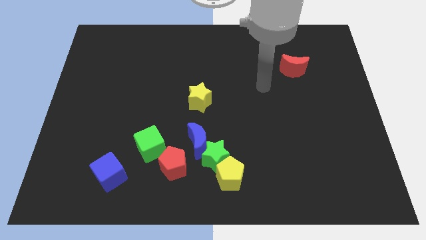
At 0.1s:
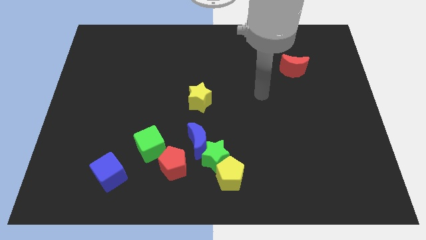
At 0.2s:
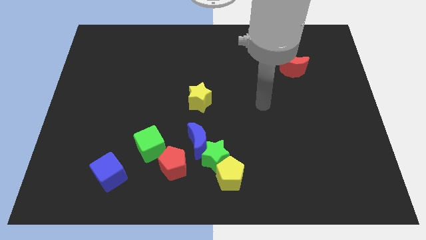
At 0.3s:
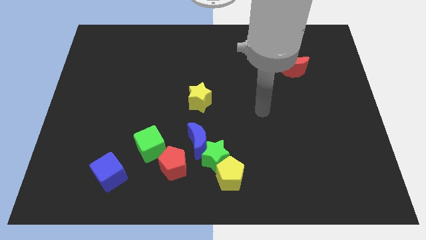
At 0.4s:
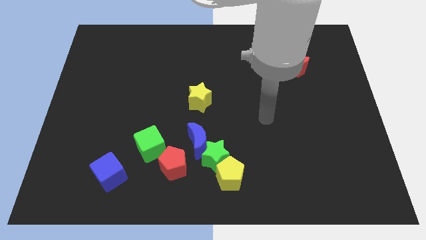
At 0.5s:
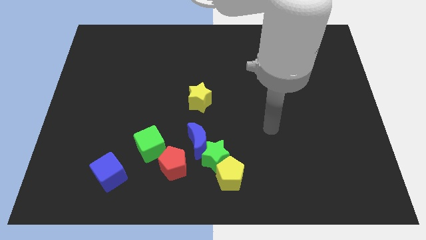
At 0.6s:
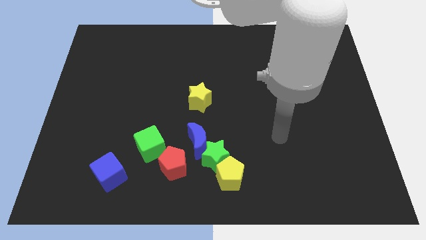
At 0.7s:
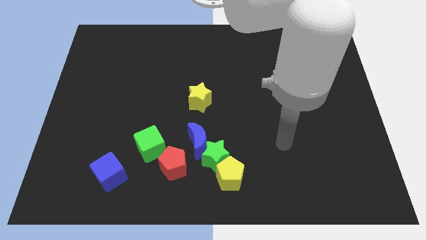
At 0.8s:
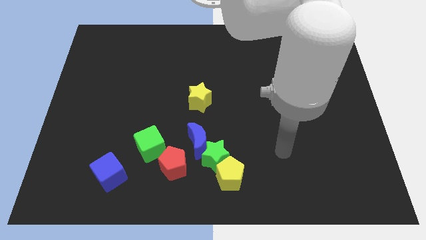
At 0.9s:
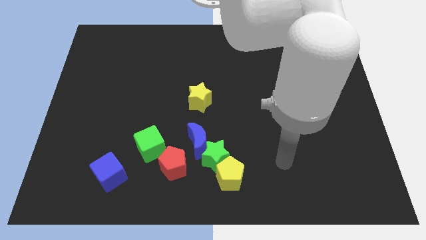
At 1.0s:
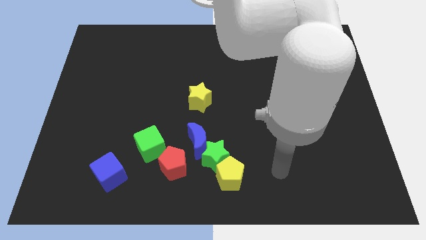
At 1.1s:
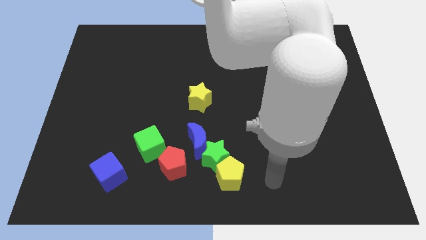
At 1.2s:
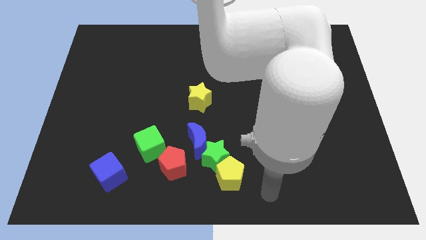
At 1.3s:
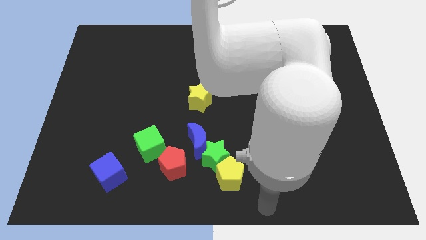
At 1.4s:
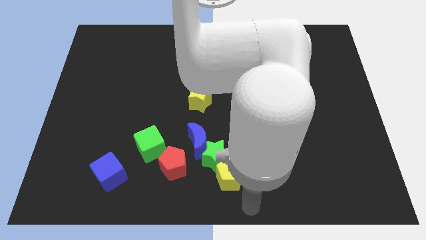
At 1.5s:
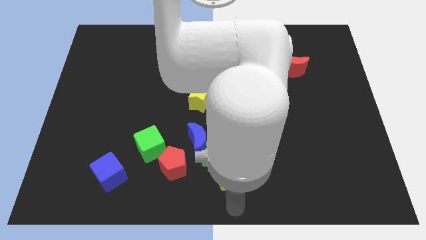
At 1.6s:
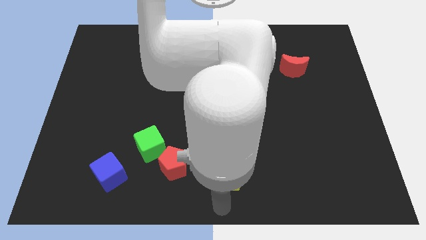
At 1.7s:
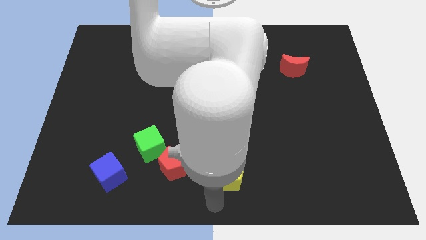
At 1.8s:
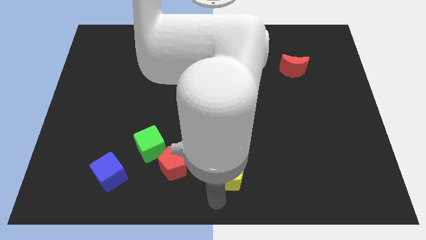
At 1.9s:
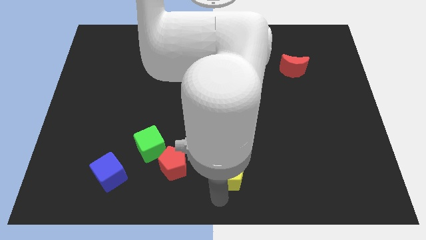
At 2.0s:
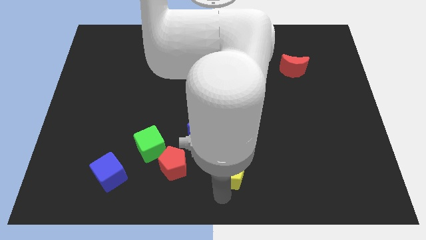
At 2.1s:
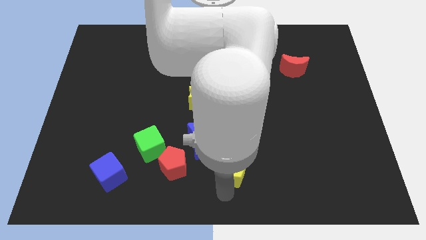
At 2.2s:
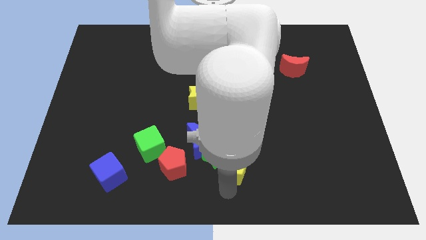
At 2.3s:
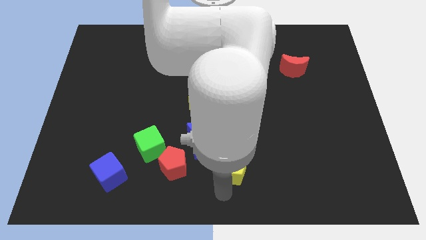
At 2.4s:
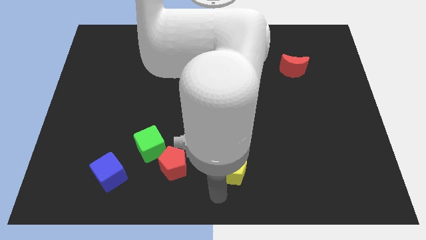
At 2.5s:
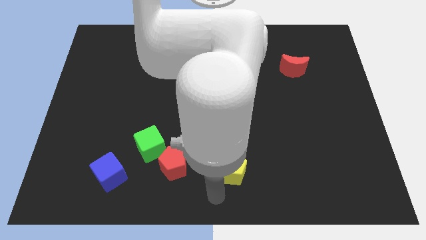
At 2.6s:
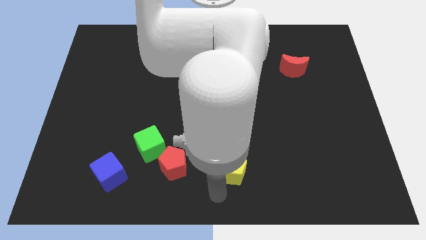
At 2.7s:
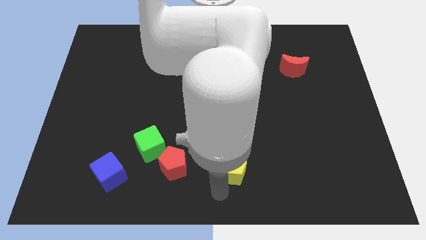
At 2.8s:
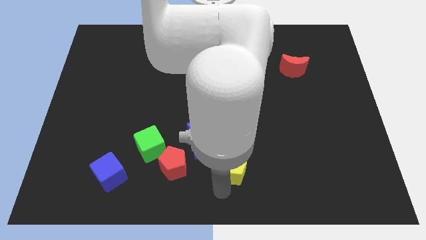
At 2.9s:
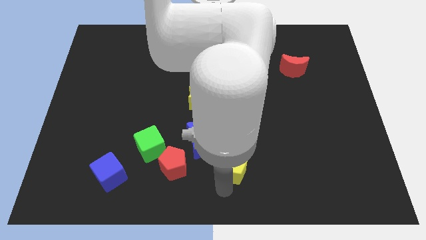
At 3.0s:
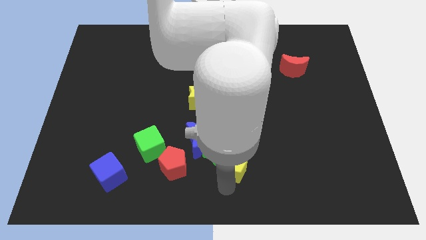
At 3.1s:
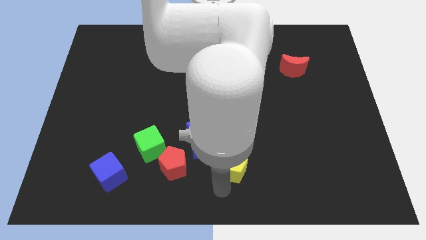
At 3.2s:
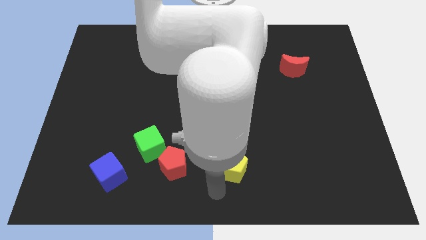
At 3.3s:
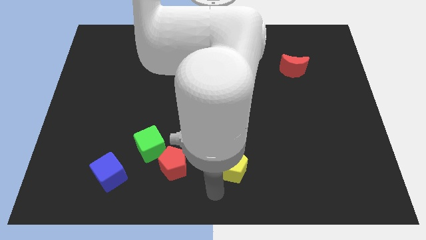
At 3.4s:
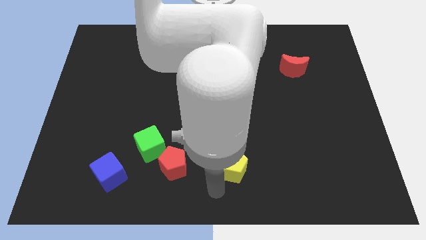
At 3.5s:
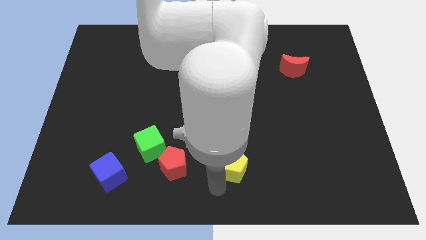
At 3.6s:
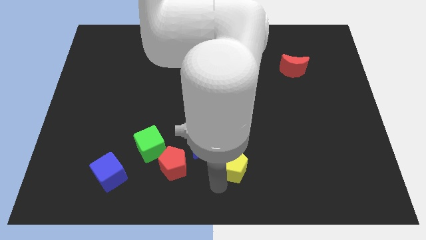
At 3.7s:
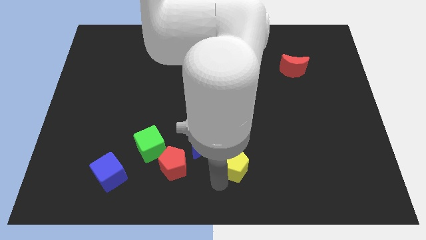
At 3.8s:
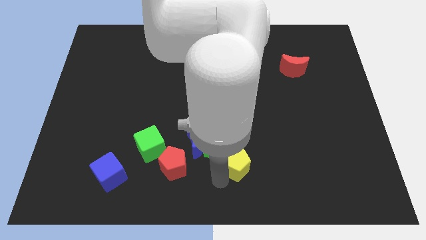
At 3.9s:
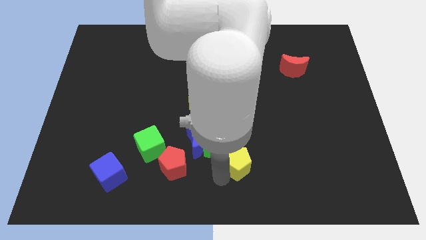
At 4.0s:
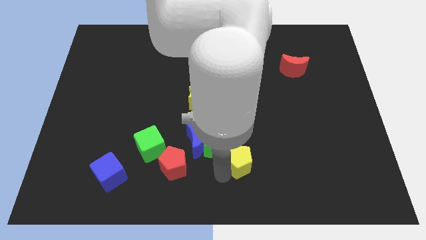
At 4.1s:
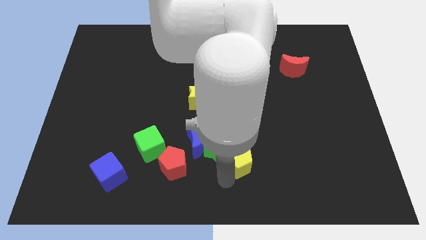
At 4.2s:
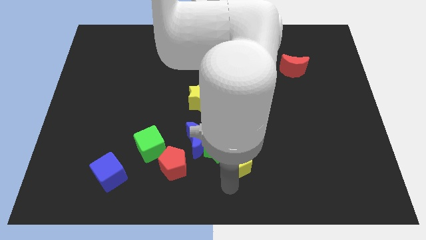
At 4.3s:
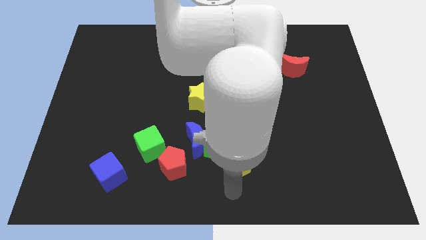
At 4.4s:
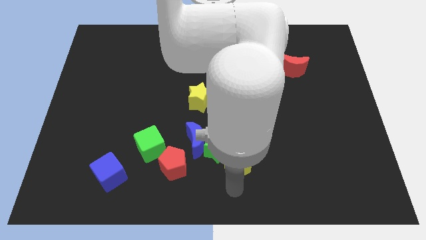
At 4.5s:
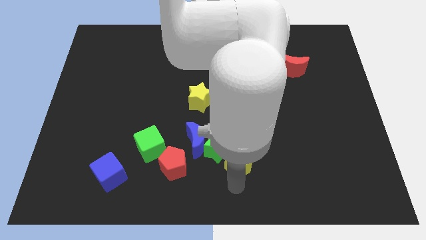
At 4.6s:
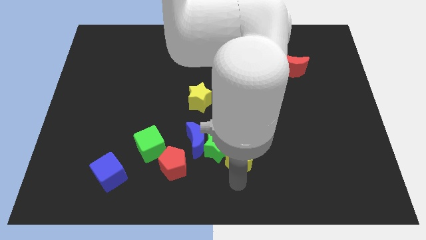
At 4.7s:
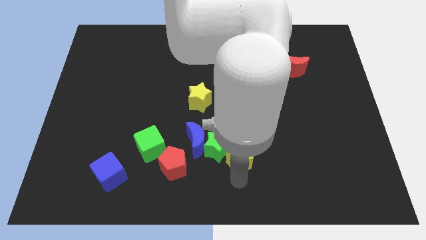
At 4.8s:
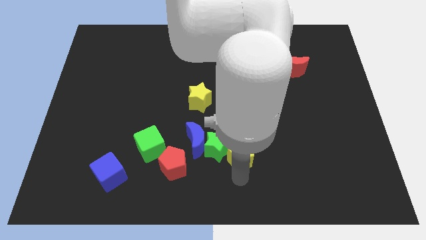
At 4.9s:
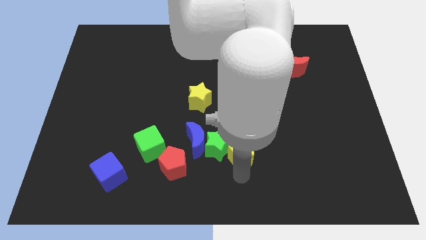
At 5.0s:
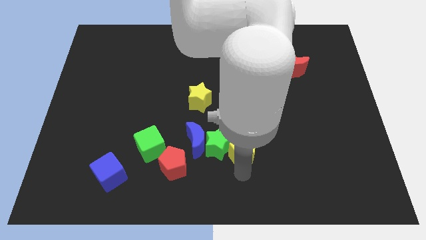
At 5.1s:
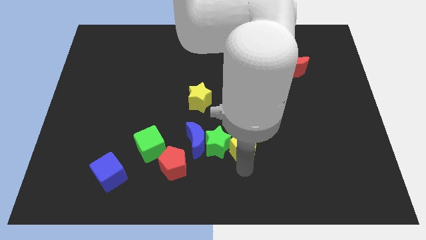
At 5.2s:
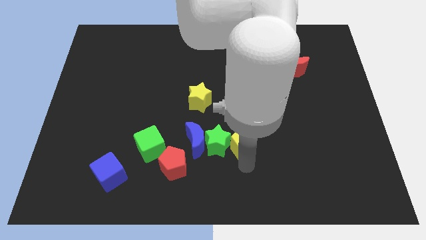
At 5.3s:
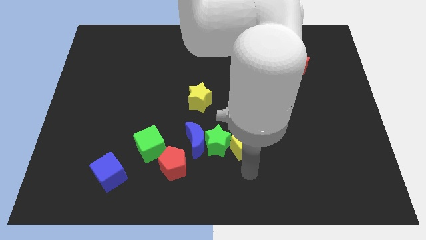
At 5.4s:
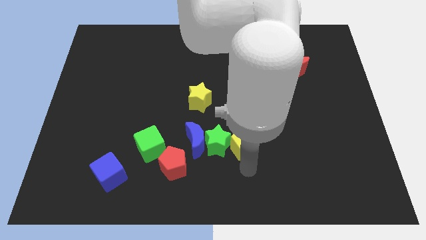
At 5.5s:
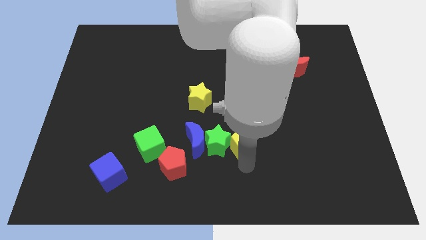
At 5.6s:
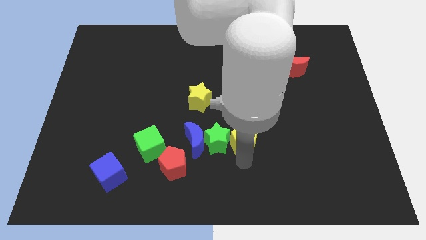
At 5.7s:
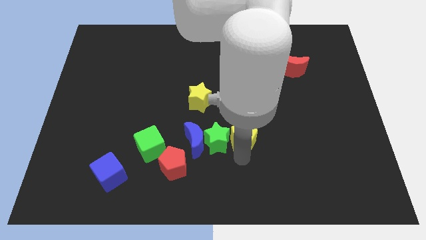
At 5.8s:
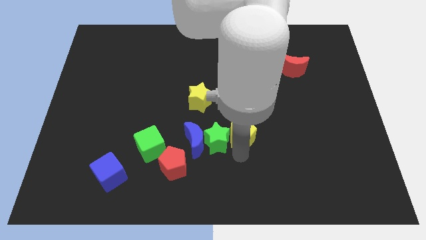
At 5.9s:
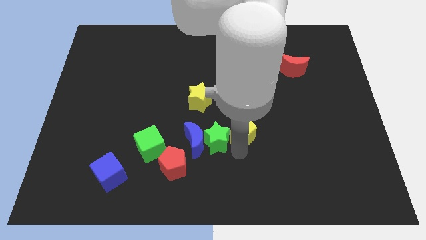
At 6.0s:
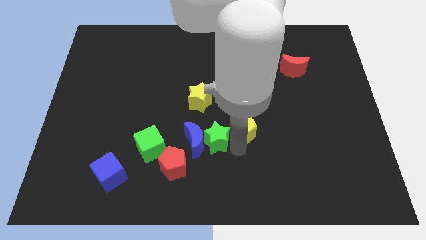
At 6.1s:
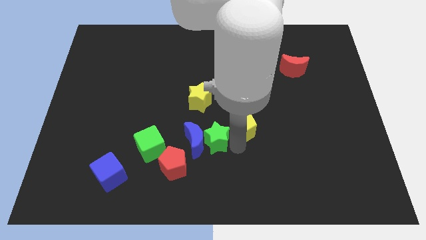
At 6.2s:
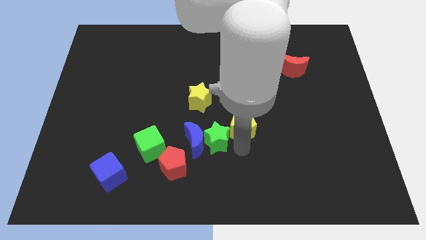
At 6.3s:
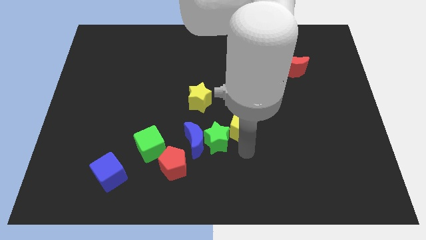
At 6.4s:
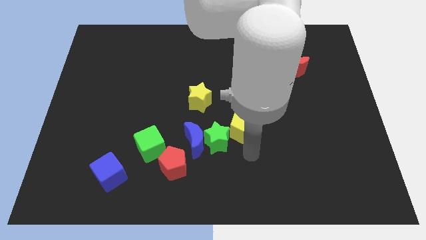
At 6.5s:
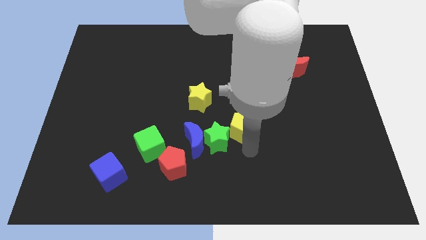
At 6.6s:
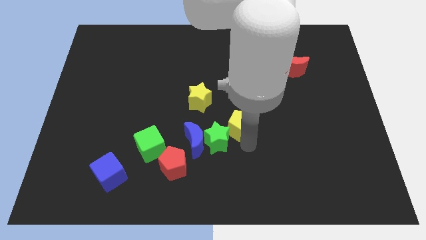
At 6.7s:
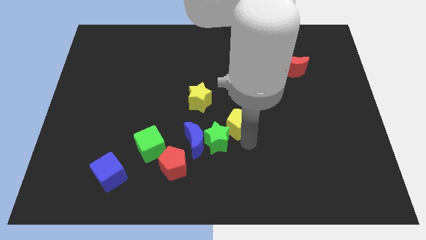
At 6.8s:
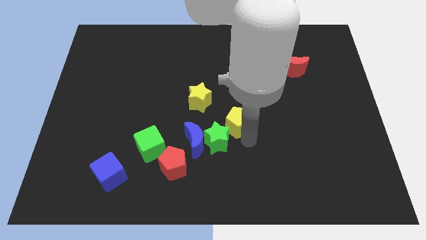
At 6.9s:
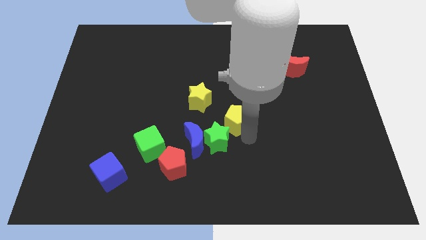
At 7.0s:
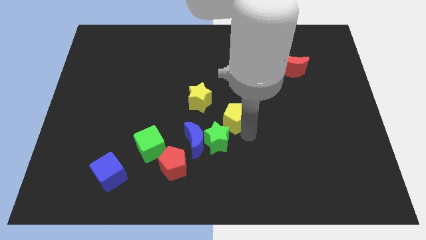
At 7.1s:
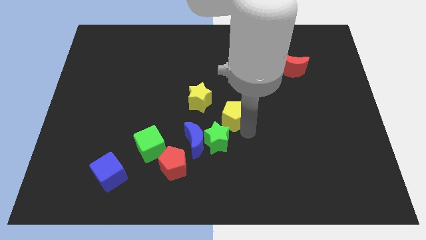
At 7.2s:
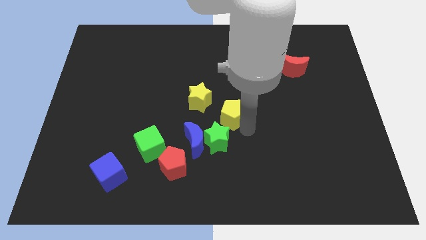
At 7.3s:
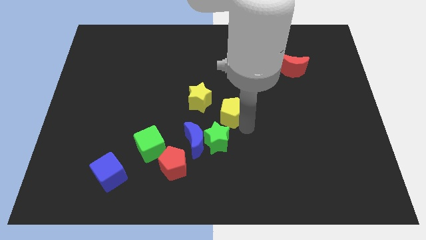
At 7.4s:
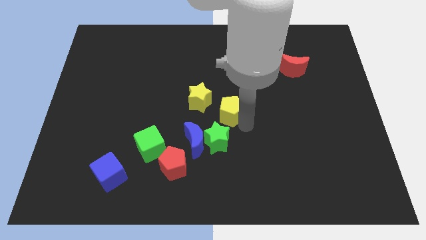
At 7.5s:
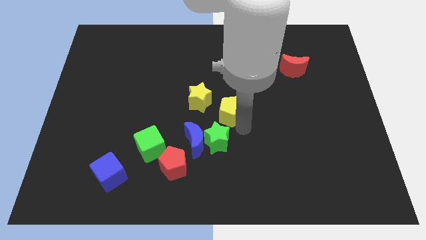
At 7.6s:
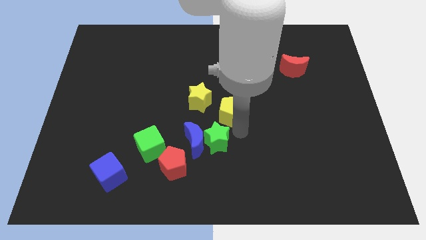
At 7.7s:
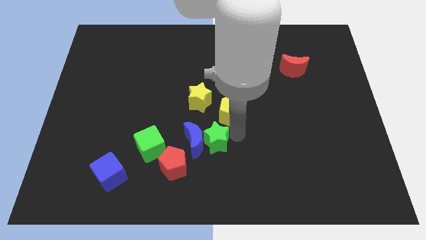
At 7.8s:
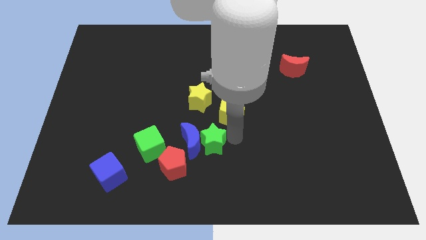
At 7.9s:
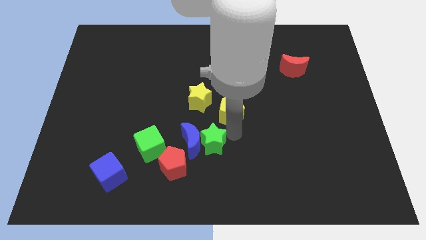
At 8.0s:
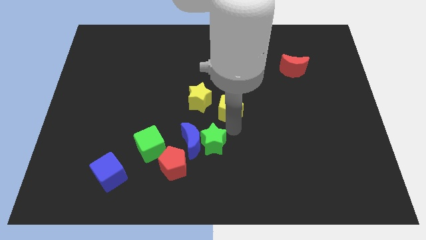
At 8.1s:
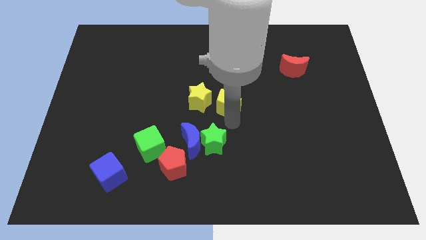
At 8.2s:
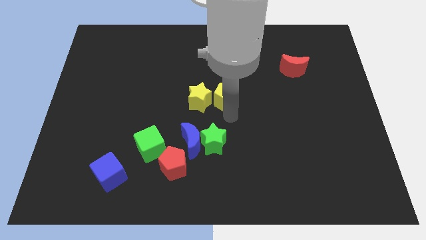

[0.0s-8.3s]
push the yellow pentagon upwards
